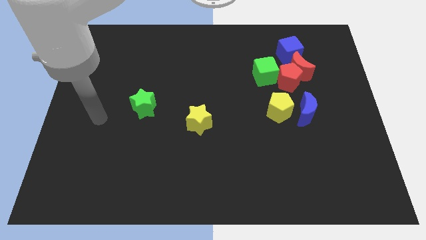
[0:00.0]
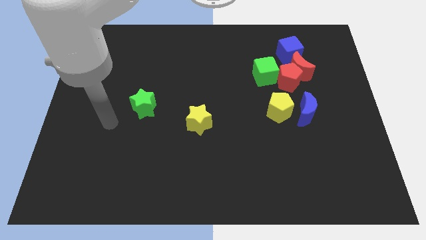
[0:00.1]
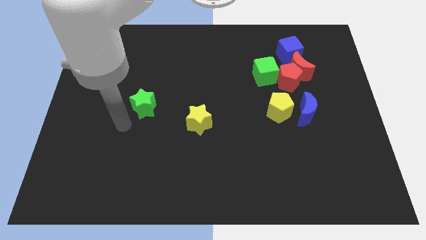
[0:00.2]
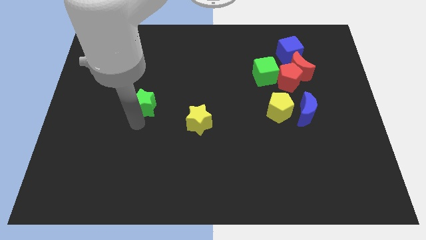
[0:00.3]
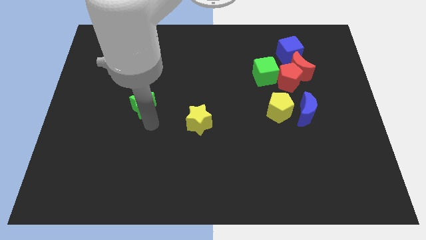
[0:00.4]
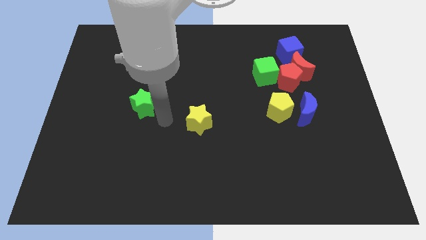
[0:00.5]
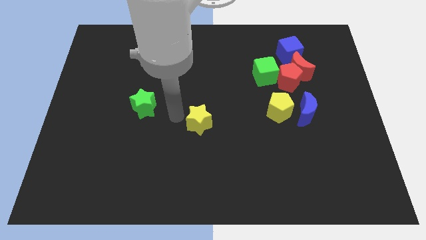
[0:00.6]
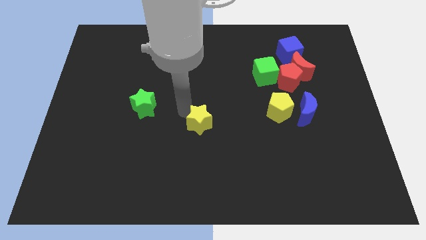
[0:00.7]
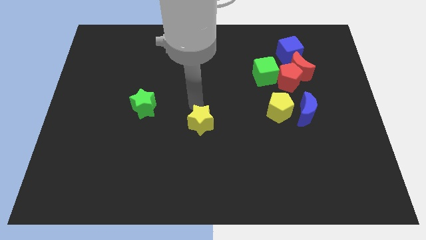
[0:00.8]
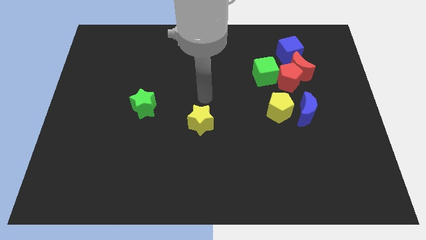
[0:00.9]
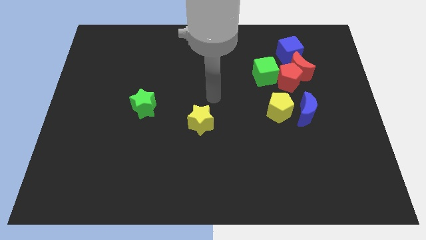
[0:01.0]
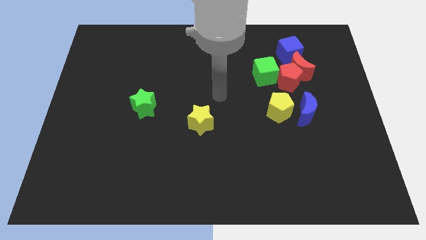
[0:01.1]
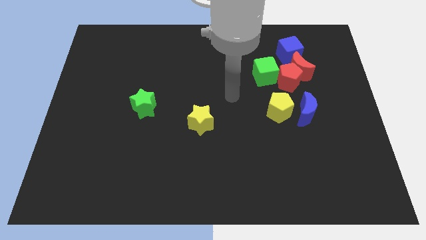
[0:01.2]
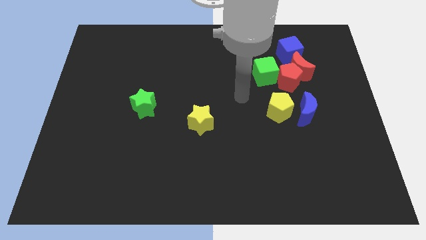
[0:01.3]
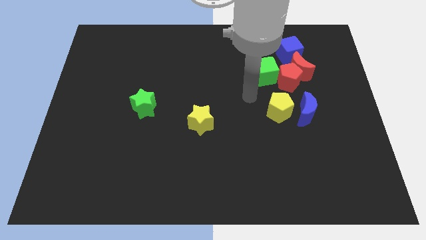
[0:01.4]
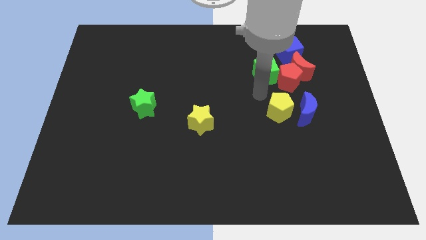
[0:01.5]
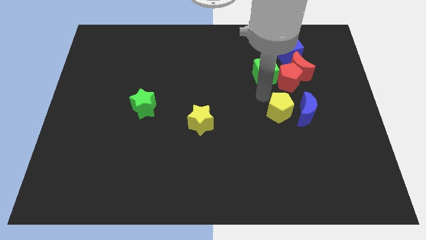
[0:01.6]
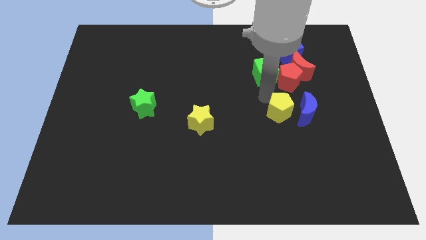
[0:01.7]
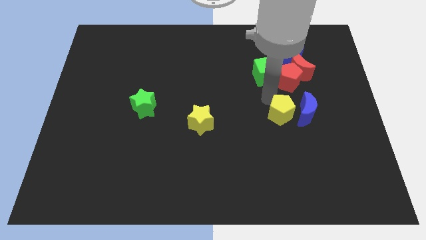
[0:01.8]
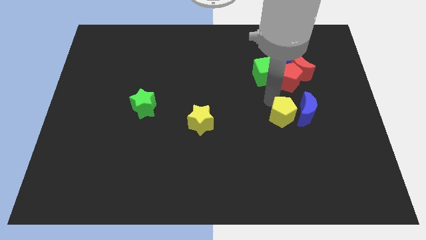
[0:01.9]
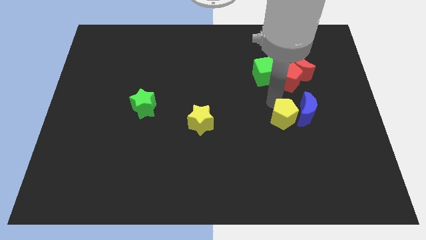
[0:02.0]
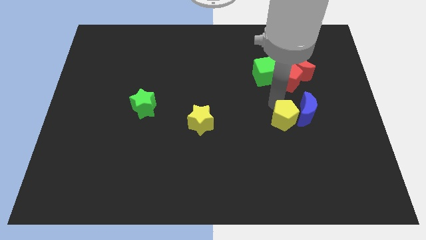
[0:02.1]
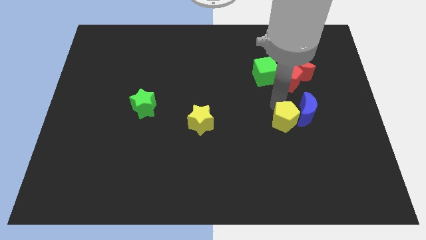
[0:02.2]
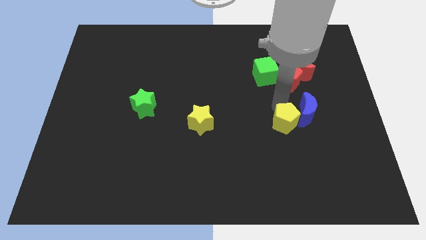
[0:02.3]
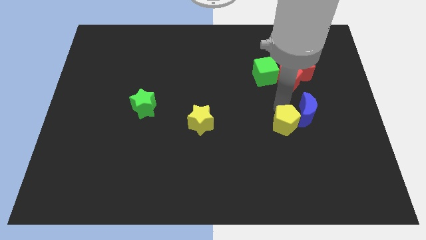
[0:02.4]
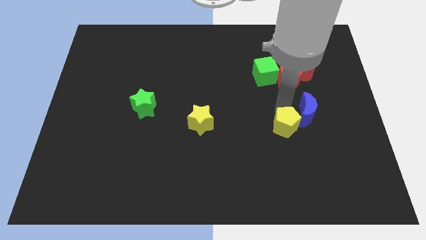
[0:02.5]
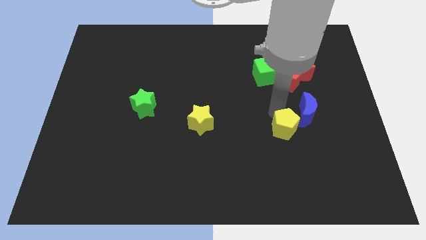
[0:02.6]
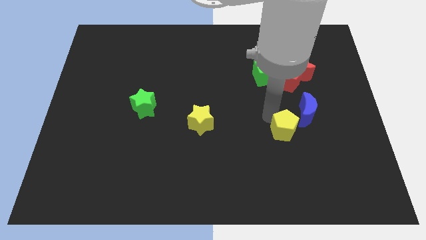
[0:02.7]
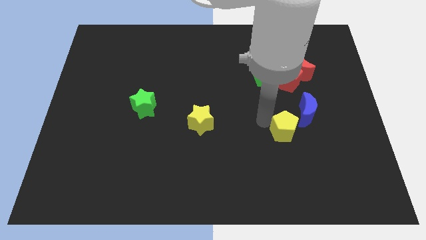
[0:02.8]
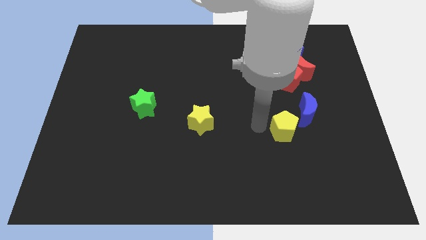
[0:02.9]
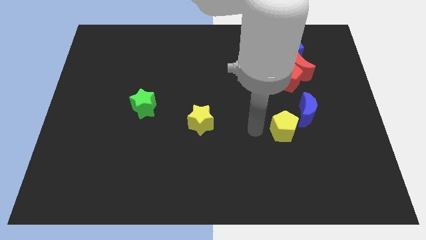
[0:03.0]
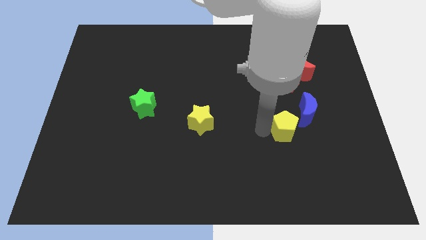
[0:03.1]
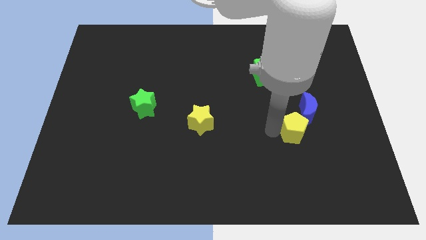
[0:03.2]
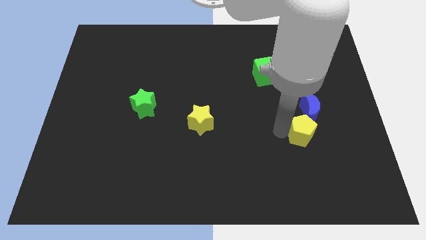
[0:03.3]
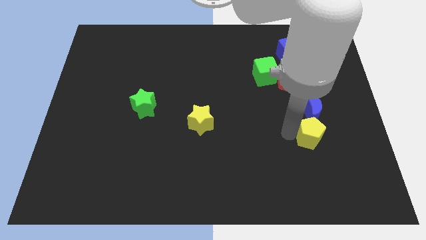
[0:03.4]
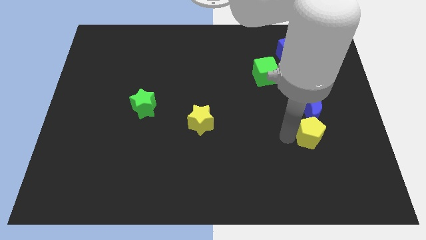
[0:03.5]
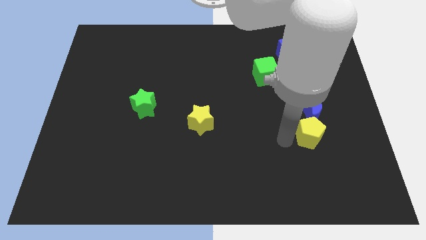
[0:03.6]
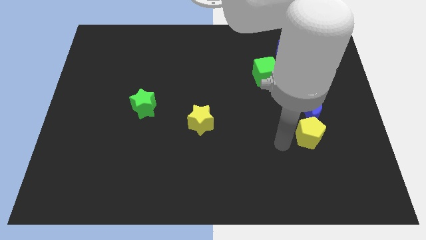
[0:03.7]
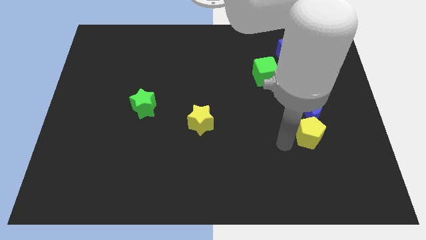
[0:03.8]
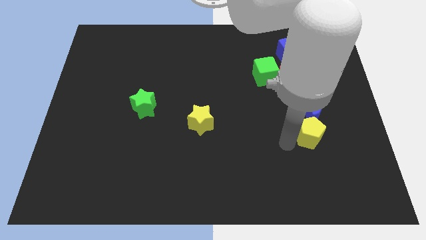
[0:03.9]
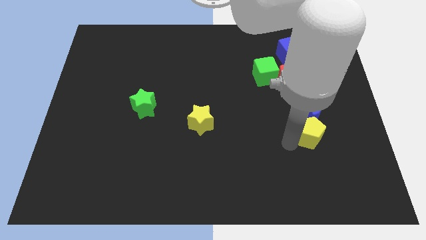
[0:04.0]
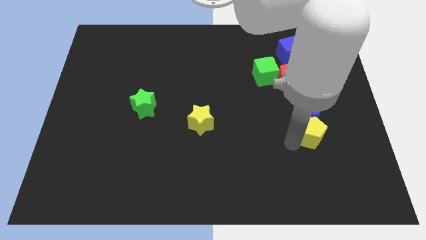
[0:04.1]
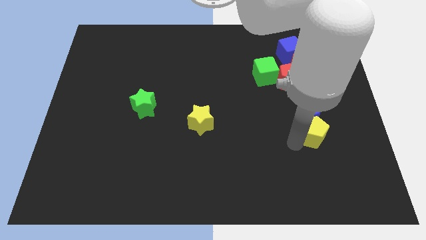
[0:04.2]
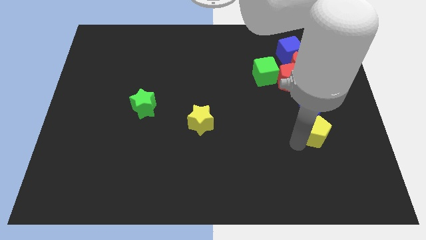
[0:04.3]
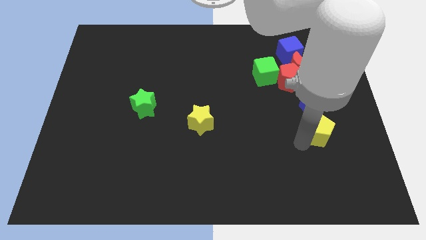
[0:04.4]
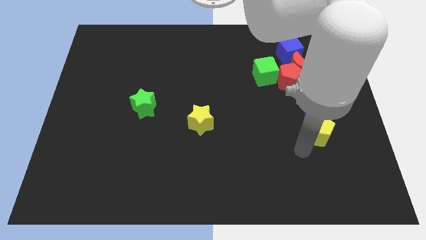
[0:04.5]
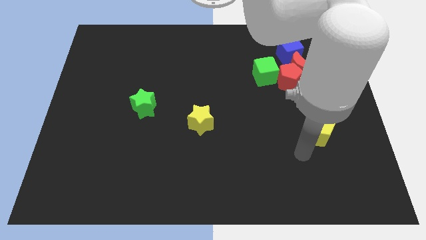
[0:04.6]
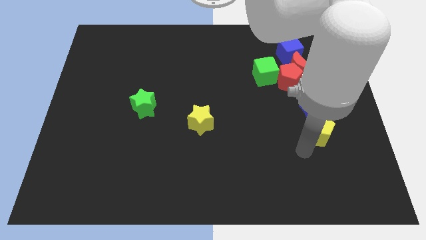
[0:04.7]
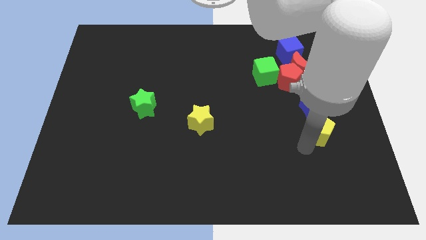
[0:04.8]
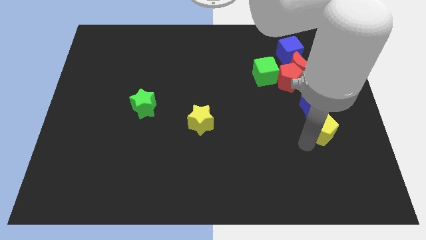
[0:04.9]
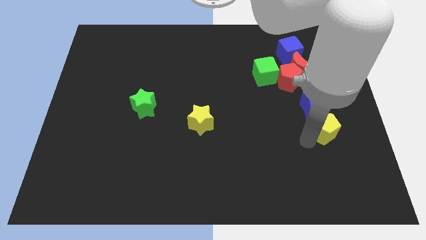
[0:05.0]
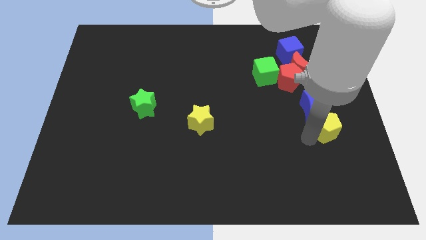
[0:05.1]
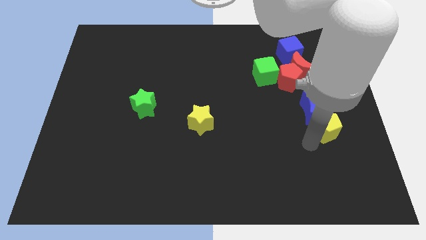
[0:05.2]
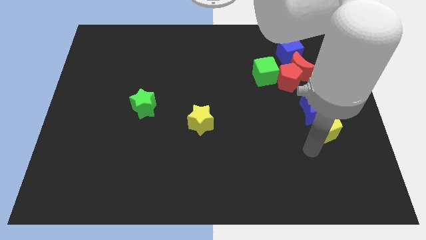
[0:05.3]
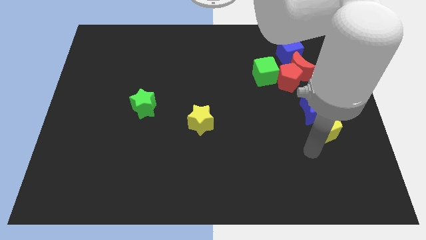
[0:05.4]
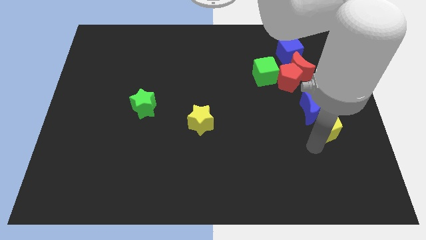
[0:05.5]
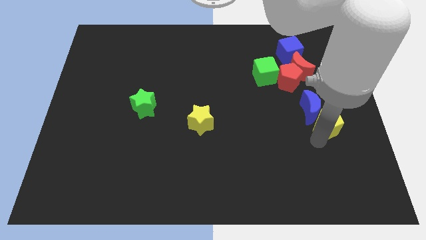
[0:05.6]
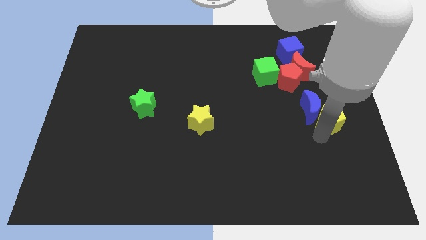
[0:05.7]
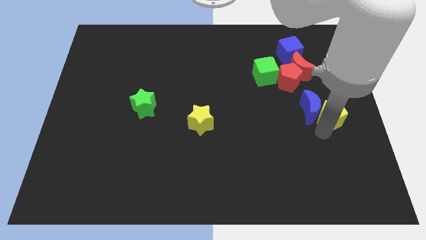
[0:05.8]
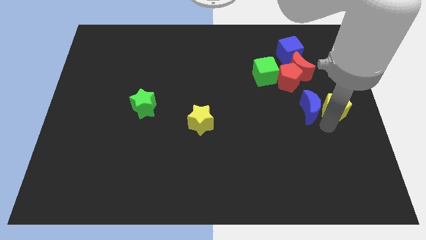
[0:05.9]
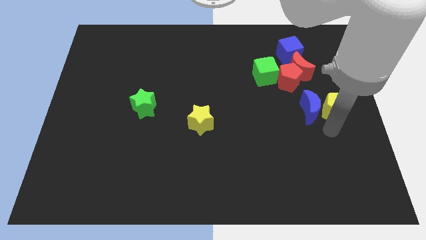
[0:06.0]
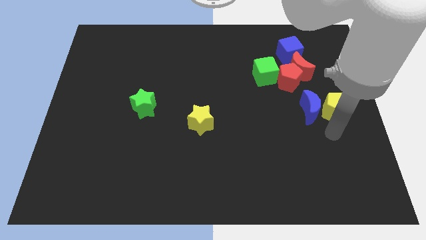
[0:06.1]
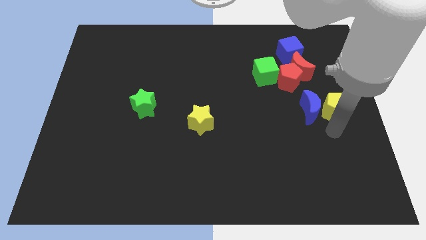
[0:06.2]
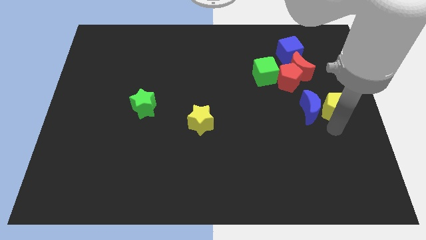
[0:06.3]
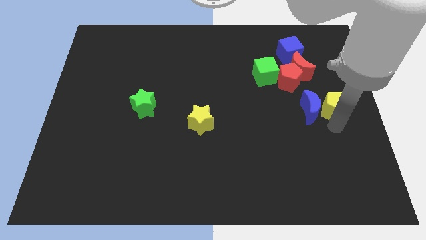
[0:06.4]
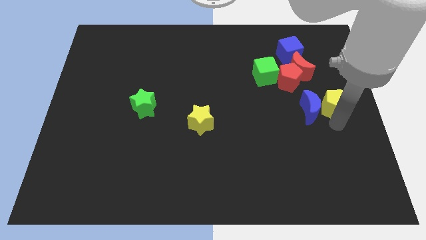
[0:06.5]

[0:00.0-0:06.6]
slightly slide the yellow pentagon up and right

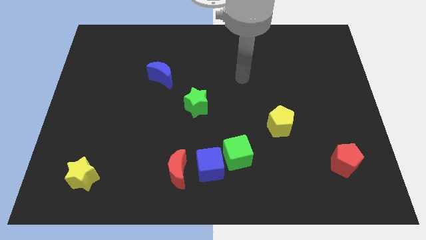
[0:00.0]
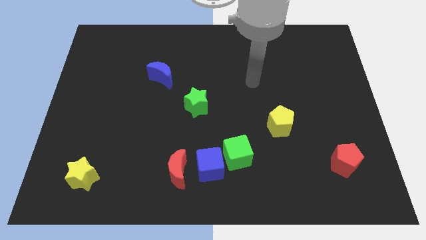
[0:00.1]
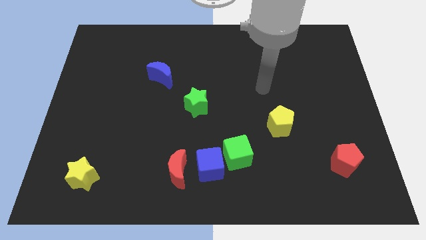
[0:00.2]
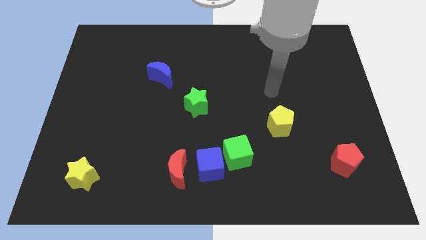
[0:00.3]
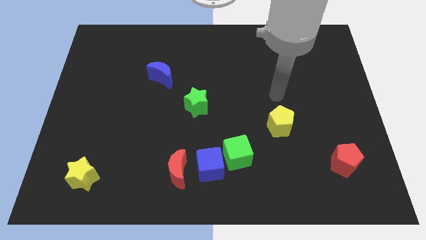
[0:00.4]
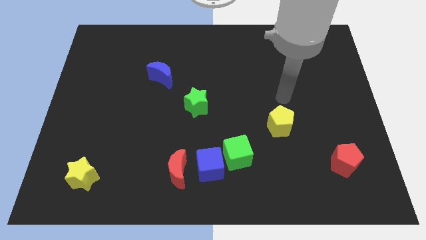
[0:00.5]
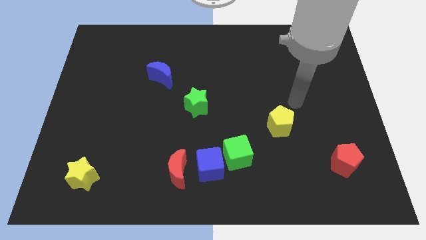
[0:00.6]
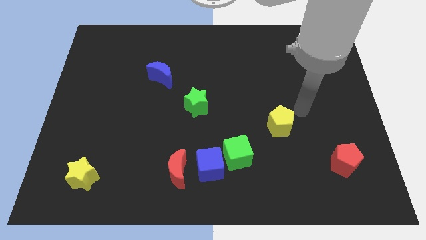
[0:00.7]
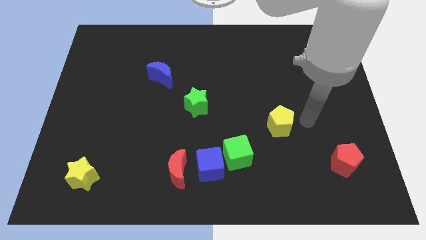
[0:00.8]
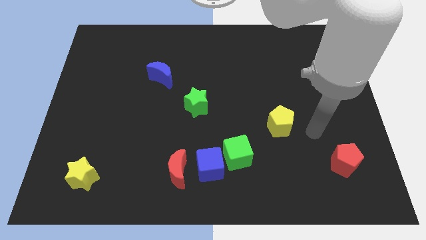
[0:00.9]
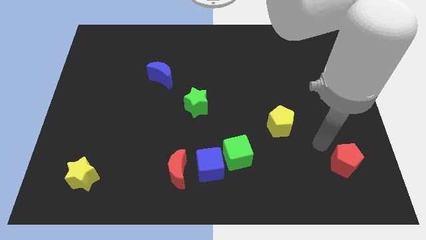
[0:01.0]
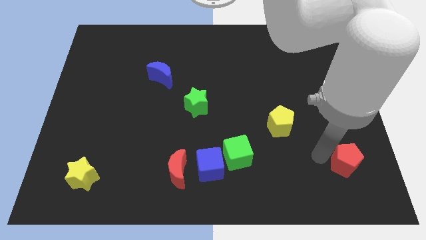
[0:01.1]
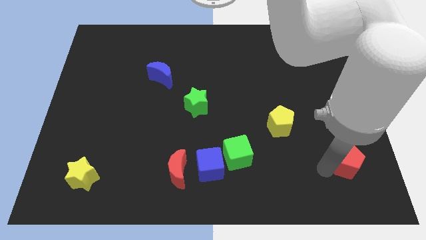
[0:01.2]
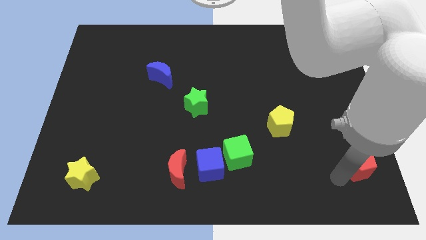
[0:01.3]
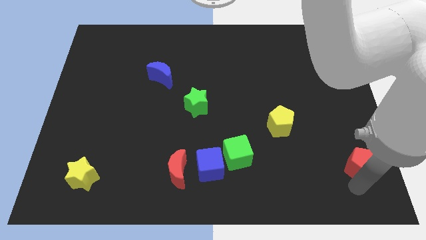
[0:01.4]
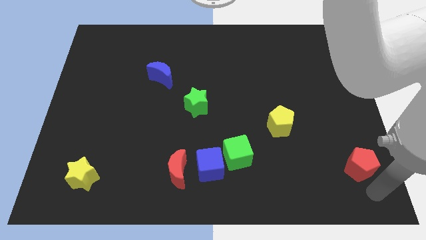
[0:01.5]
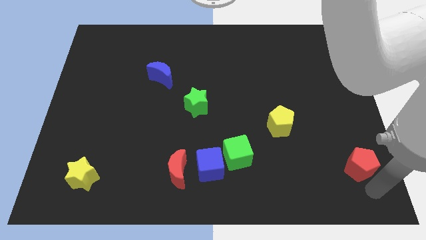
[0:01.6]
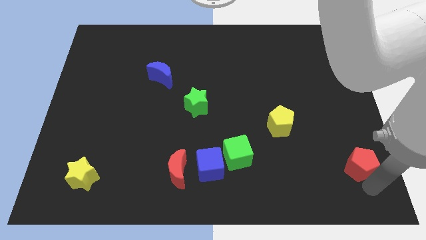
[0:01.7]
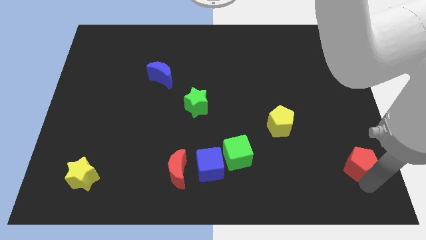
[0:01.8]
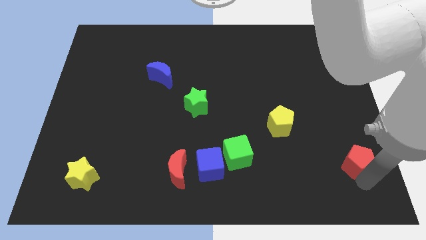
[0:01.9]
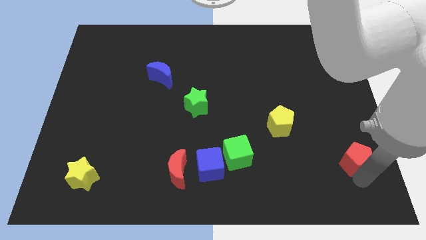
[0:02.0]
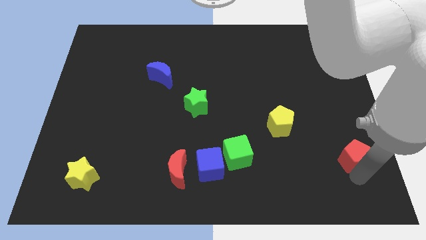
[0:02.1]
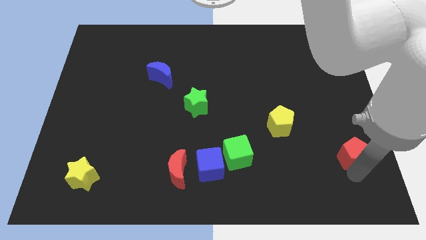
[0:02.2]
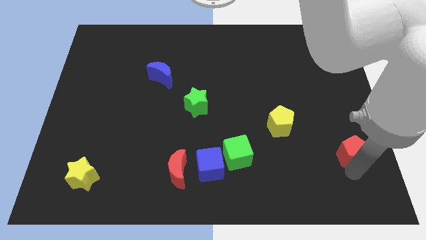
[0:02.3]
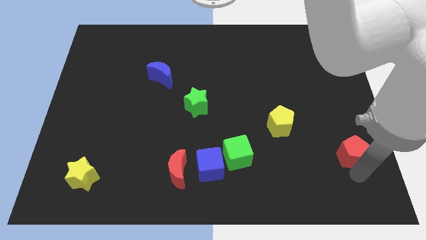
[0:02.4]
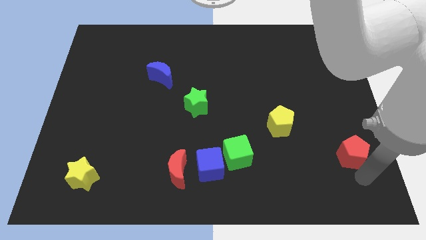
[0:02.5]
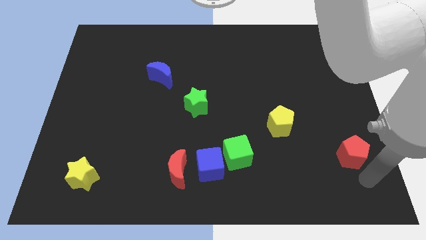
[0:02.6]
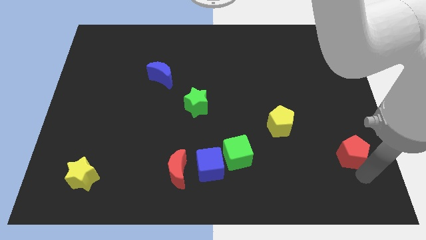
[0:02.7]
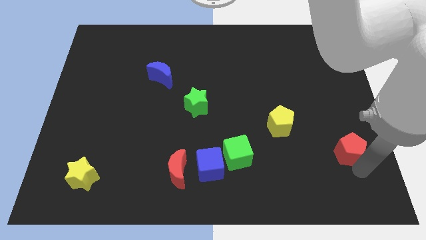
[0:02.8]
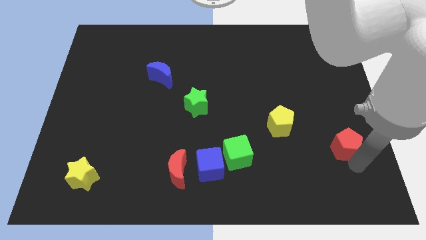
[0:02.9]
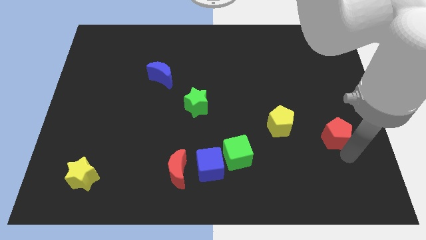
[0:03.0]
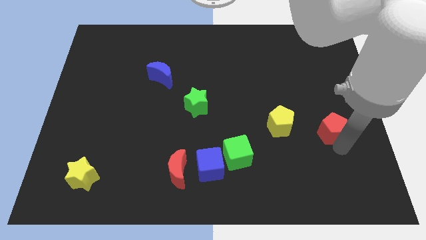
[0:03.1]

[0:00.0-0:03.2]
move the red pentagon slightly upwards
